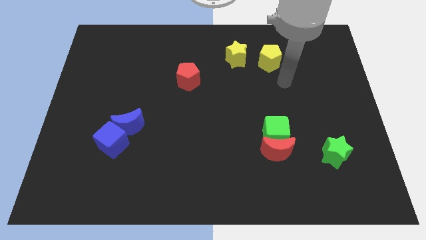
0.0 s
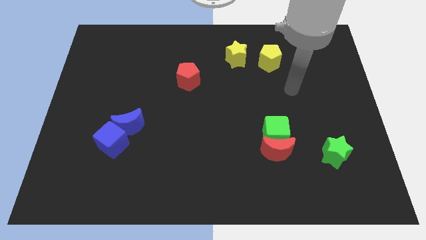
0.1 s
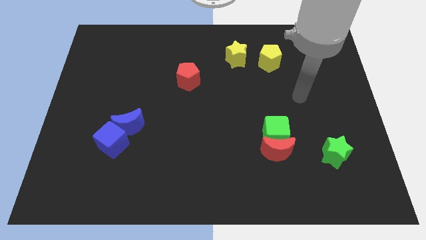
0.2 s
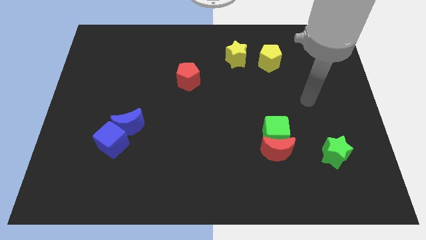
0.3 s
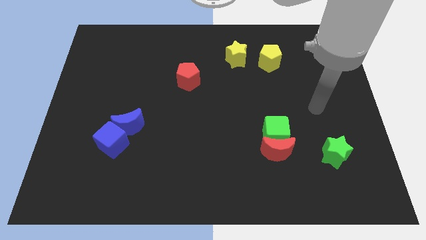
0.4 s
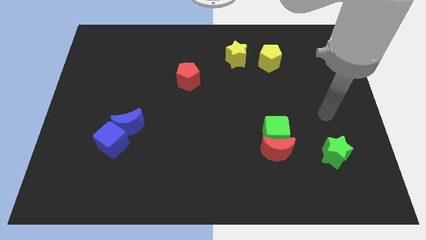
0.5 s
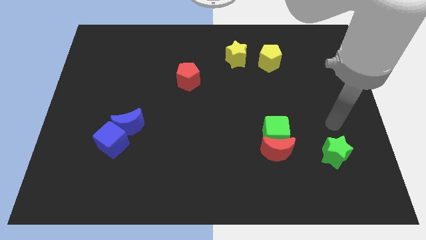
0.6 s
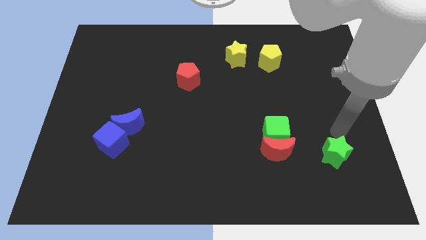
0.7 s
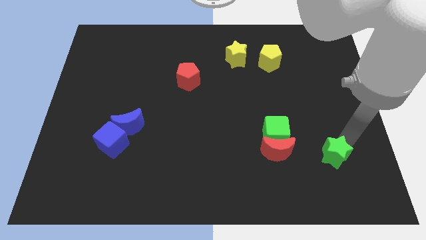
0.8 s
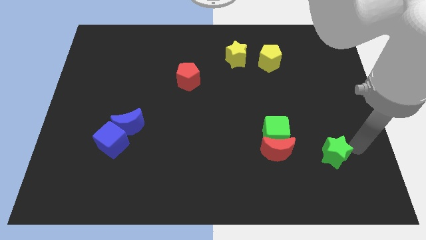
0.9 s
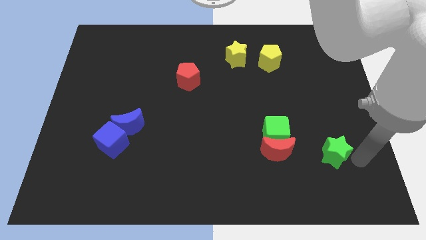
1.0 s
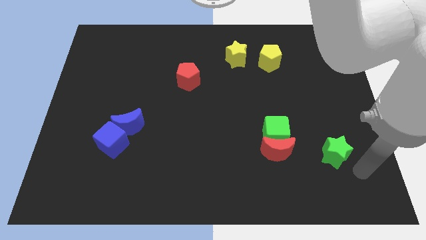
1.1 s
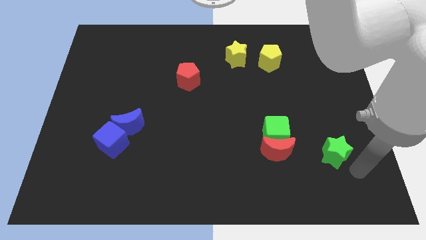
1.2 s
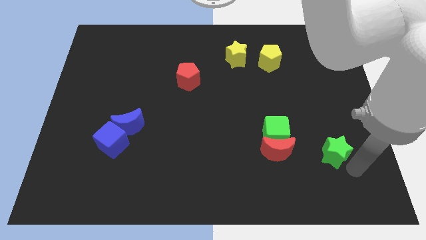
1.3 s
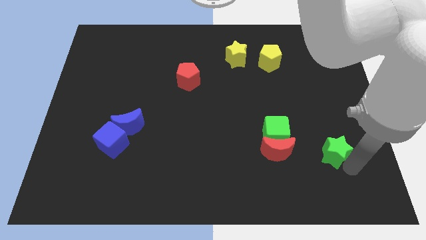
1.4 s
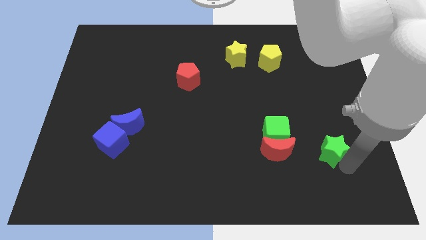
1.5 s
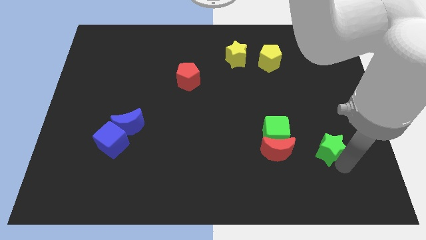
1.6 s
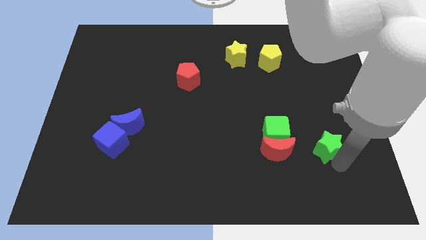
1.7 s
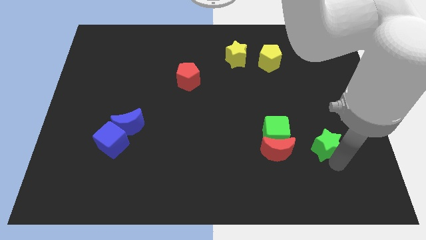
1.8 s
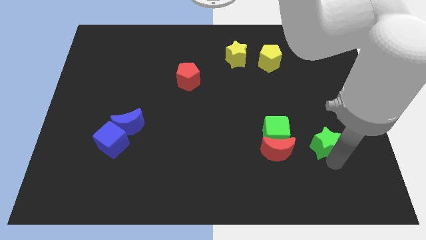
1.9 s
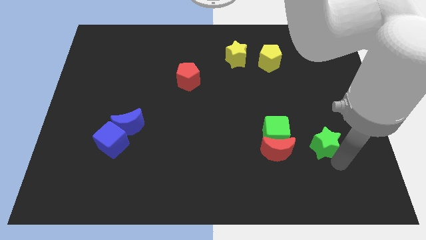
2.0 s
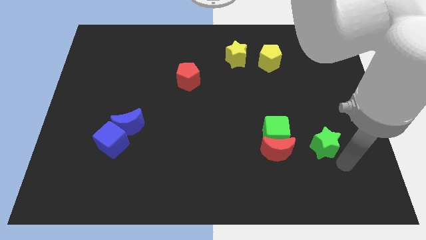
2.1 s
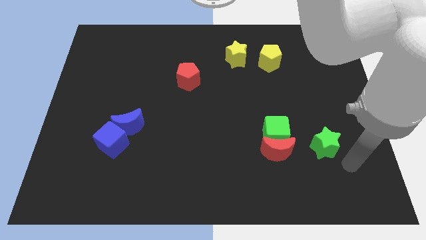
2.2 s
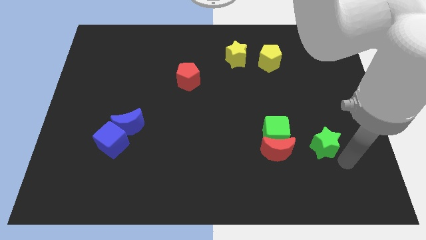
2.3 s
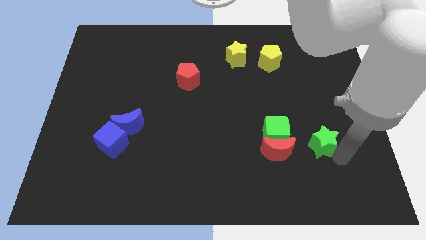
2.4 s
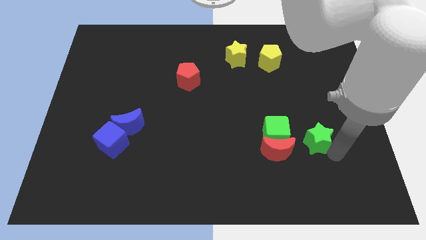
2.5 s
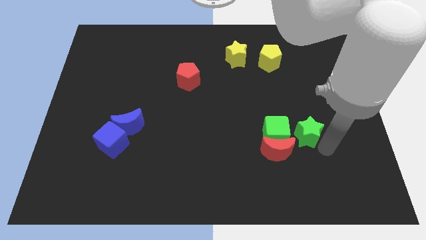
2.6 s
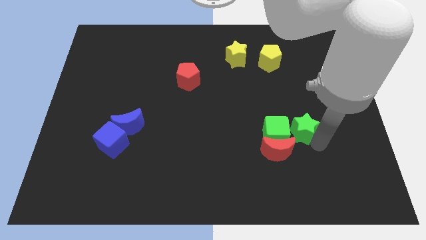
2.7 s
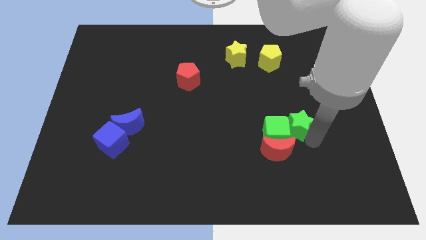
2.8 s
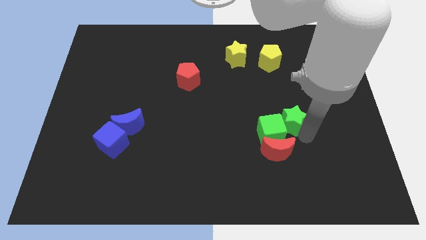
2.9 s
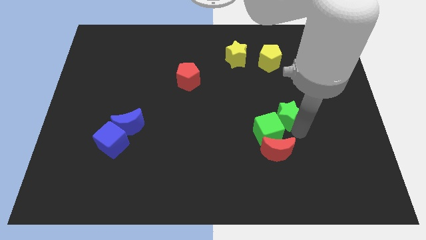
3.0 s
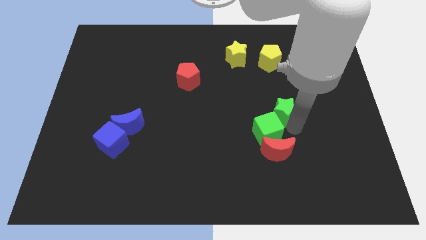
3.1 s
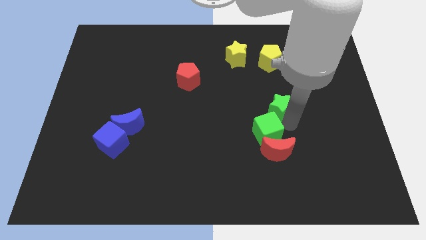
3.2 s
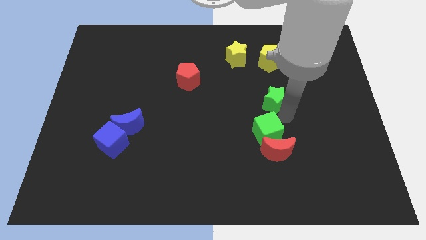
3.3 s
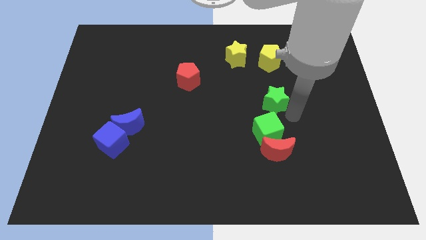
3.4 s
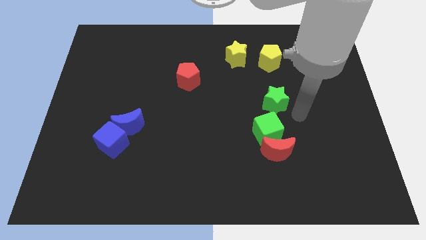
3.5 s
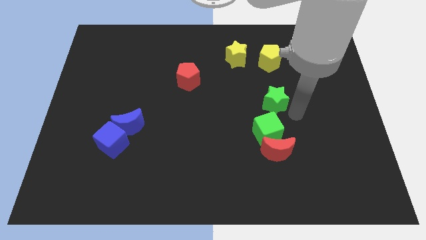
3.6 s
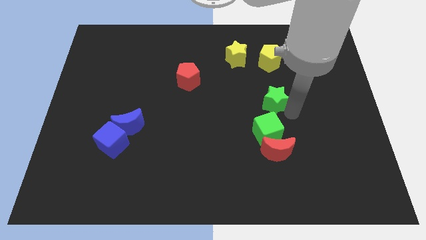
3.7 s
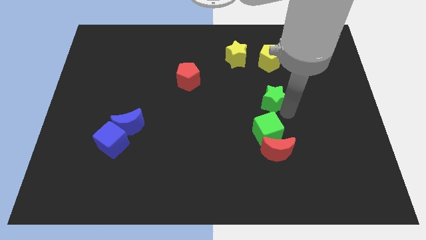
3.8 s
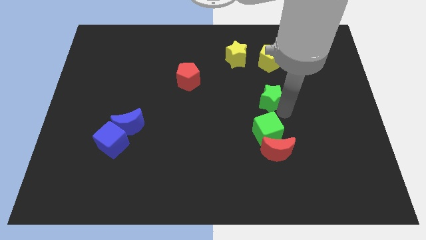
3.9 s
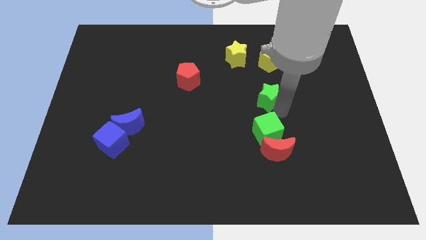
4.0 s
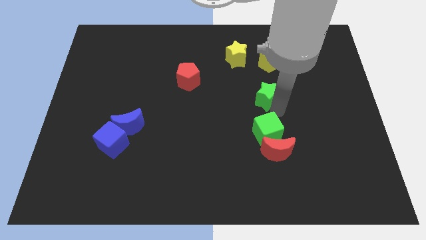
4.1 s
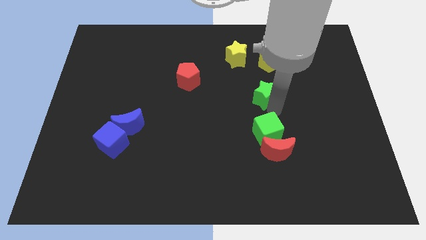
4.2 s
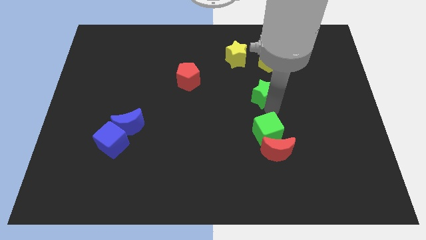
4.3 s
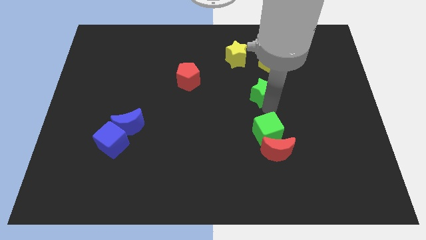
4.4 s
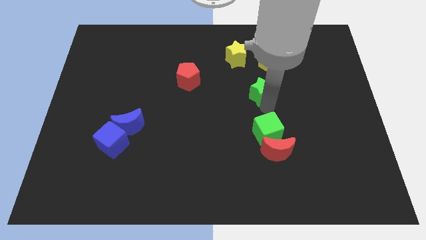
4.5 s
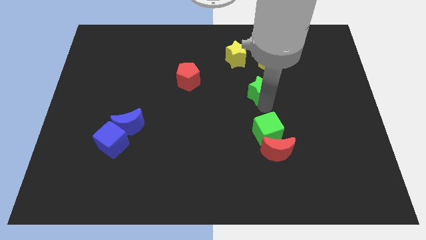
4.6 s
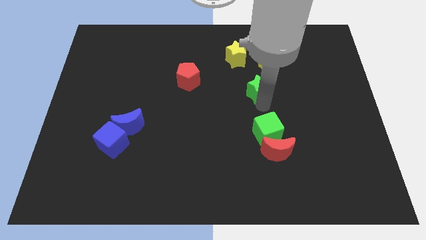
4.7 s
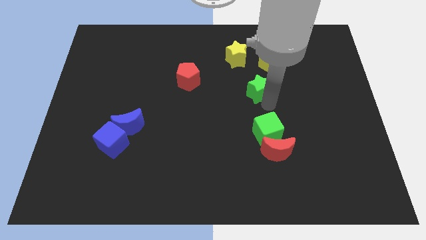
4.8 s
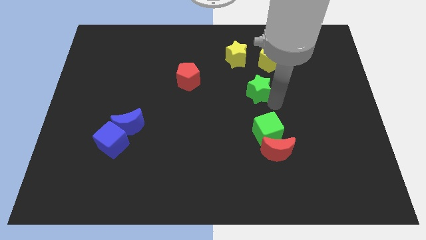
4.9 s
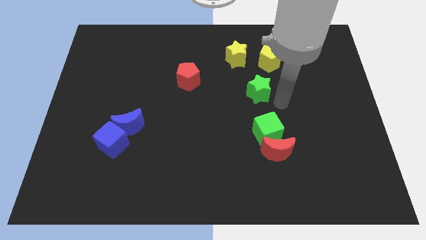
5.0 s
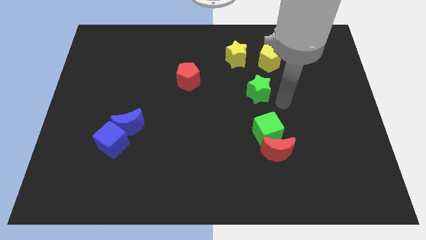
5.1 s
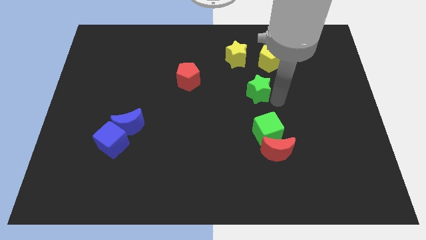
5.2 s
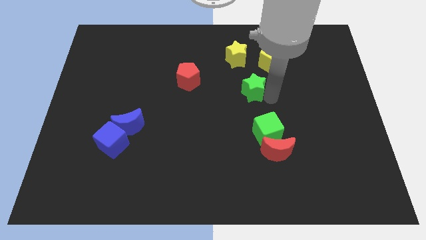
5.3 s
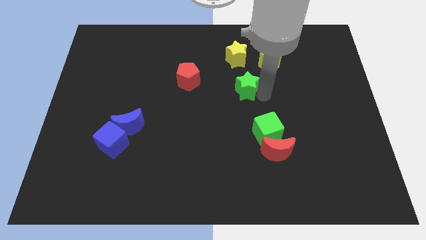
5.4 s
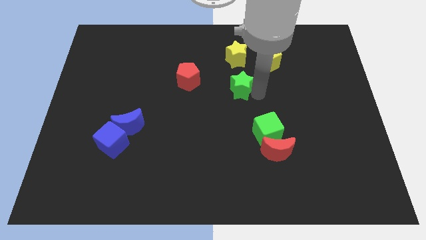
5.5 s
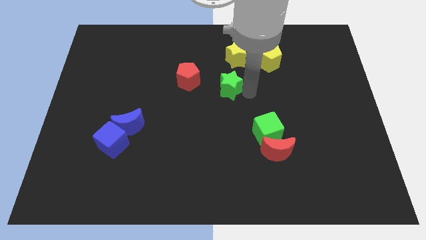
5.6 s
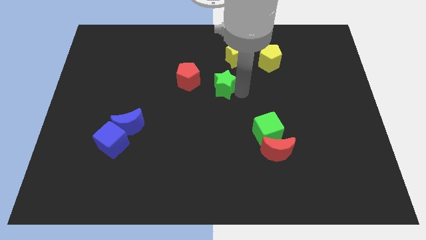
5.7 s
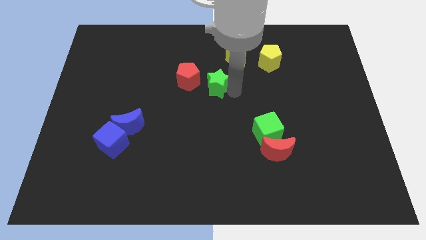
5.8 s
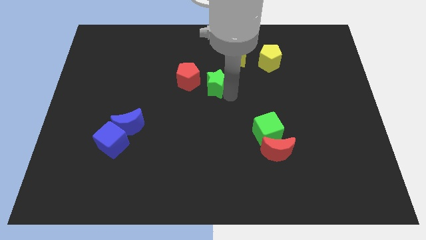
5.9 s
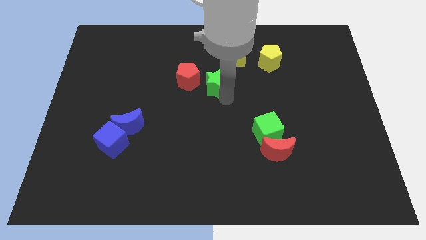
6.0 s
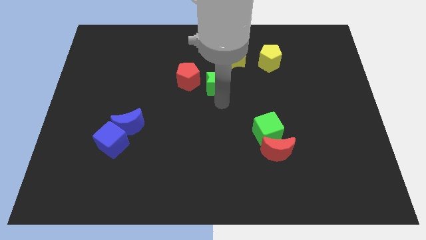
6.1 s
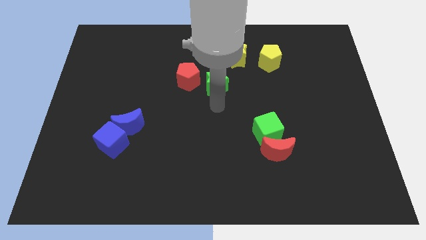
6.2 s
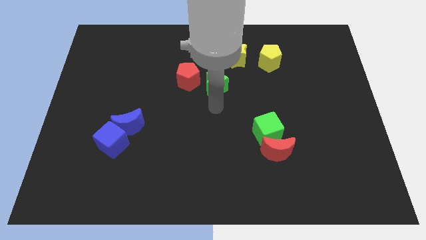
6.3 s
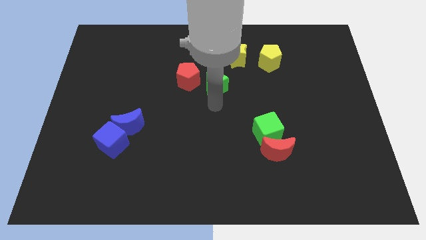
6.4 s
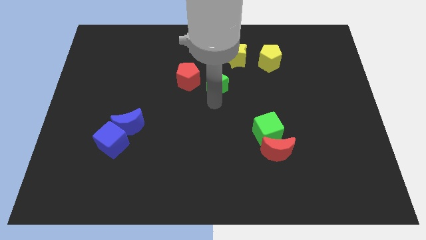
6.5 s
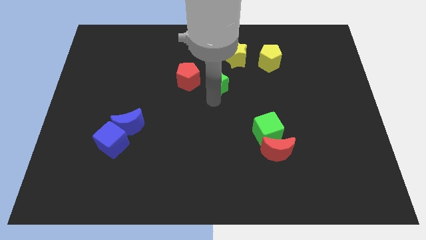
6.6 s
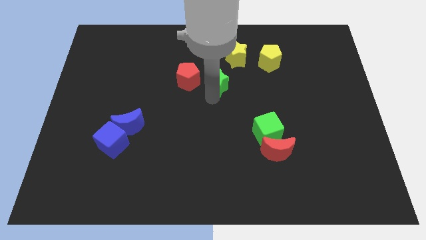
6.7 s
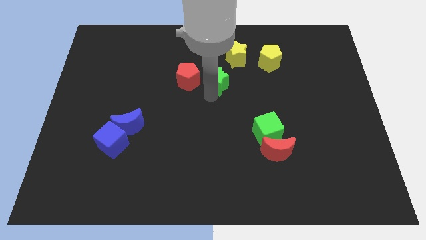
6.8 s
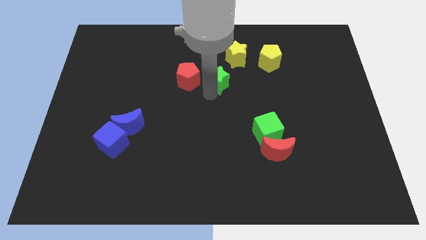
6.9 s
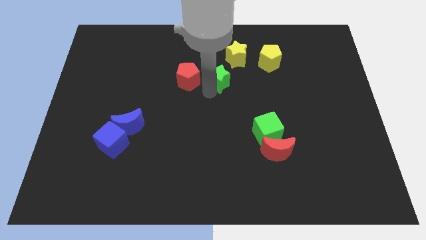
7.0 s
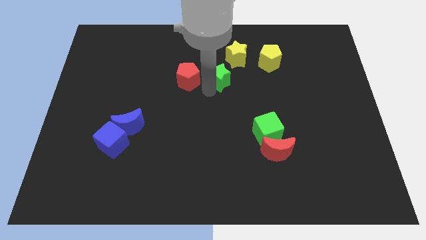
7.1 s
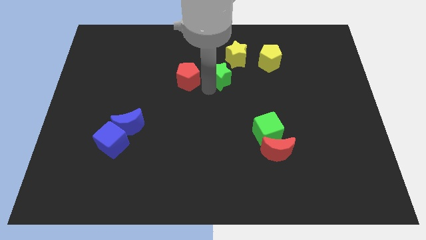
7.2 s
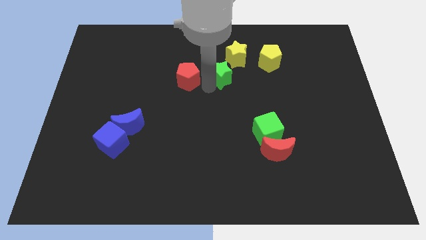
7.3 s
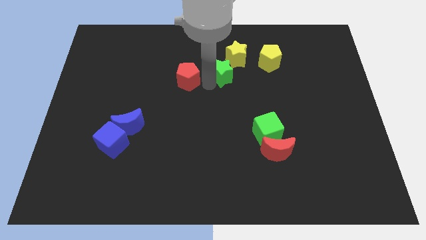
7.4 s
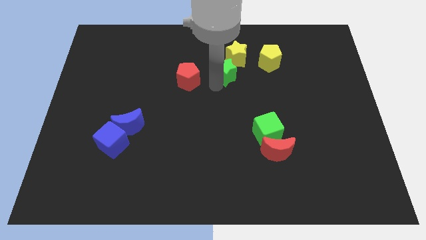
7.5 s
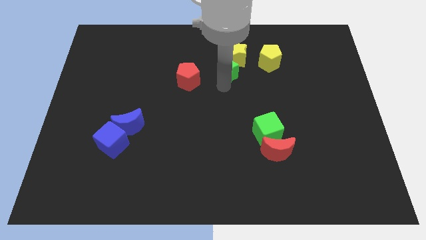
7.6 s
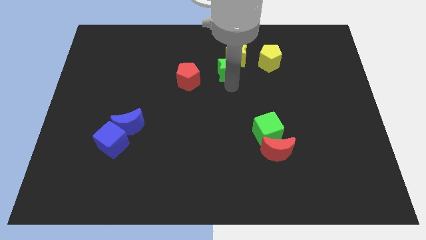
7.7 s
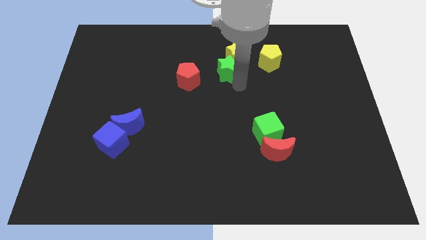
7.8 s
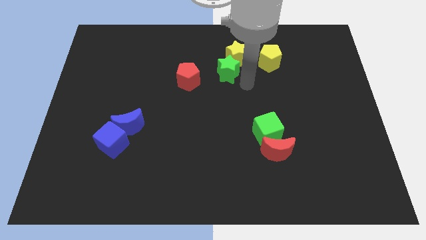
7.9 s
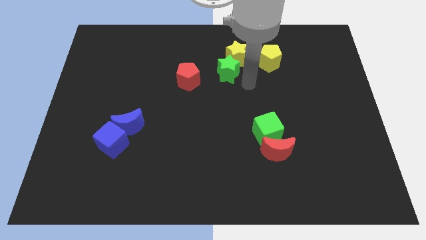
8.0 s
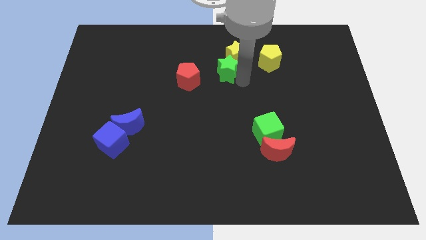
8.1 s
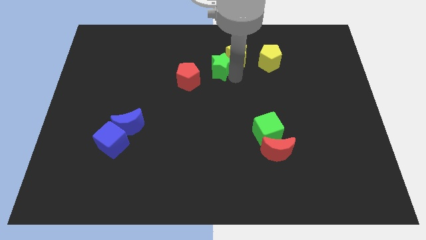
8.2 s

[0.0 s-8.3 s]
slide the green star to the left side of the yellow star
